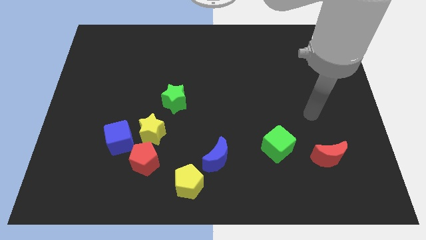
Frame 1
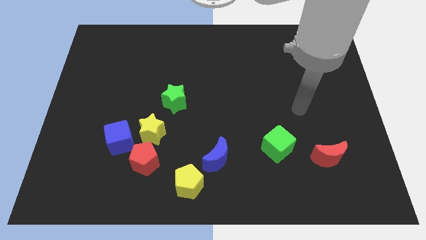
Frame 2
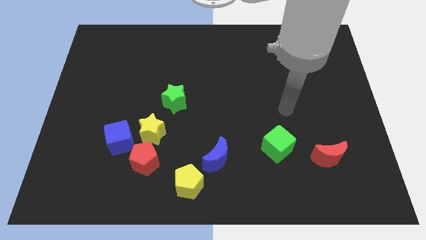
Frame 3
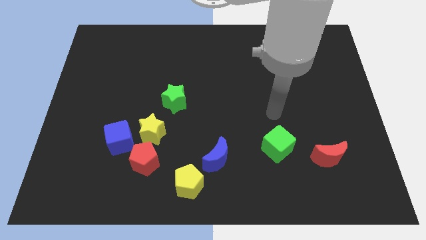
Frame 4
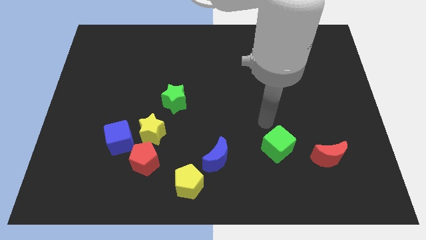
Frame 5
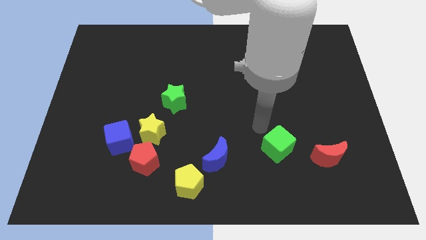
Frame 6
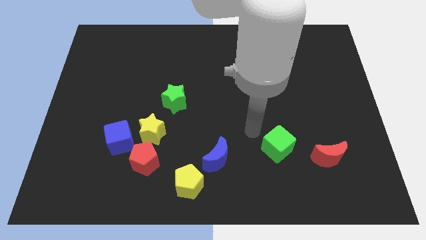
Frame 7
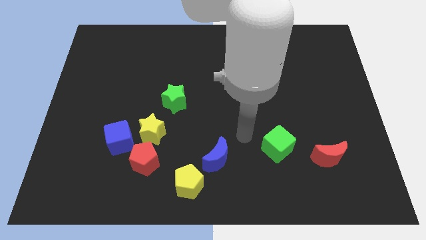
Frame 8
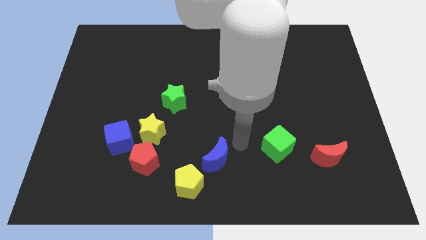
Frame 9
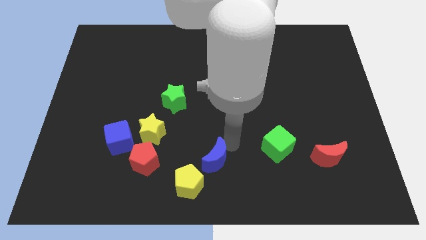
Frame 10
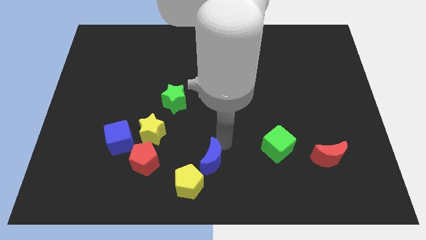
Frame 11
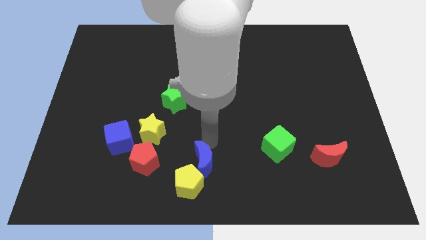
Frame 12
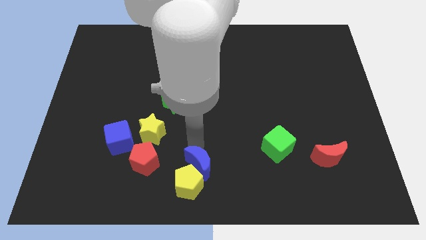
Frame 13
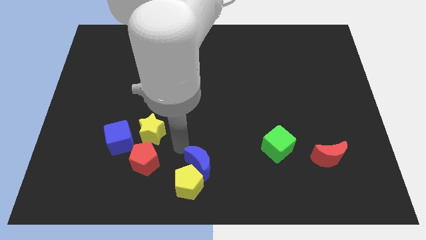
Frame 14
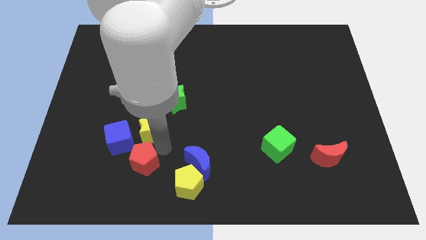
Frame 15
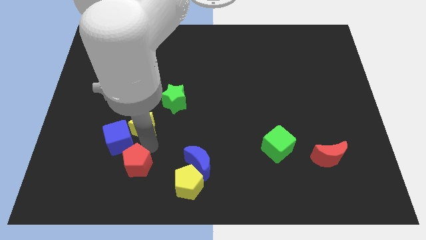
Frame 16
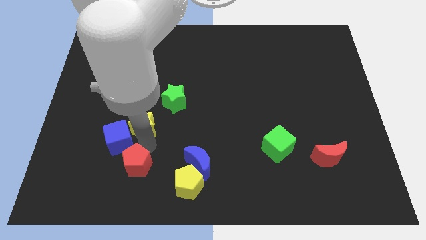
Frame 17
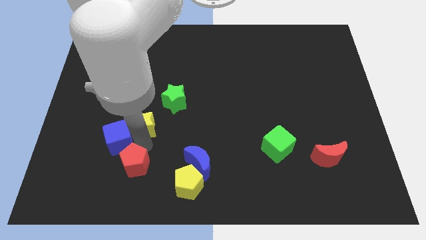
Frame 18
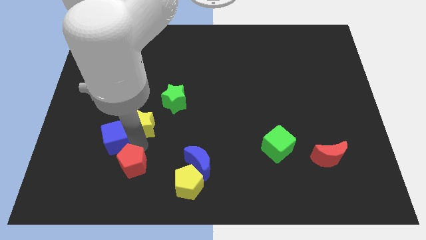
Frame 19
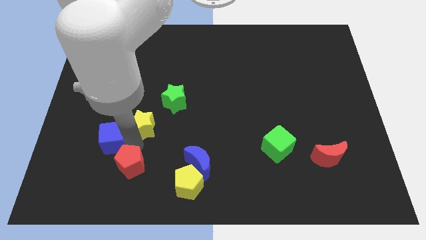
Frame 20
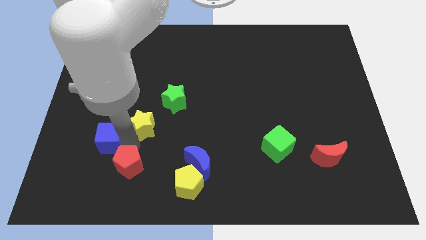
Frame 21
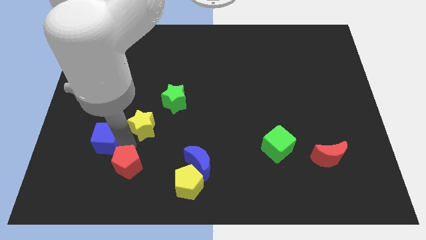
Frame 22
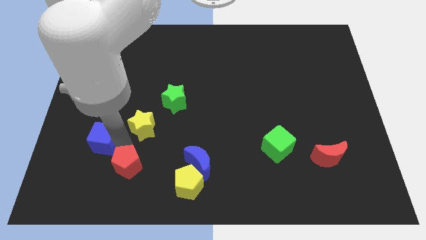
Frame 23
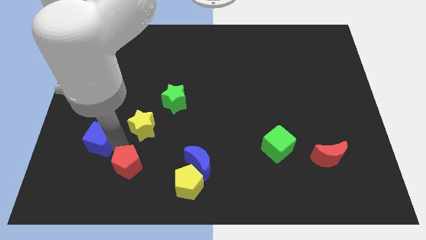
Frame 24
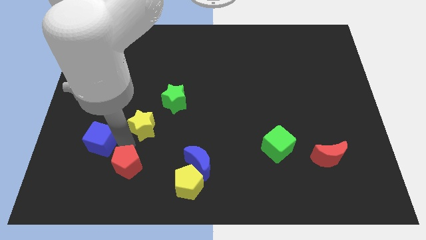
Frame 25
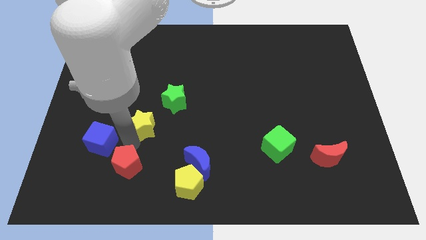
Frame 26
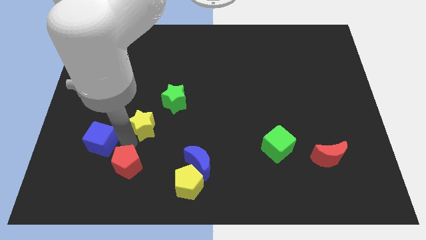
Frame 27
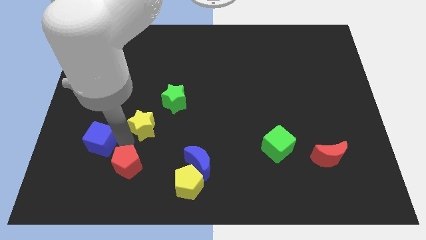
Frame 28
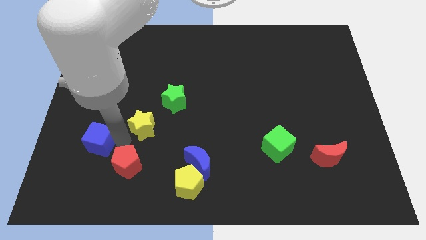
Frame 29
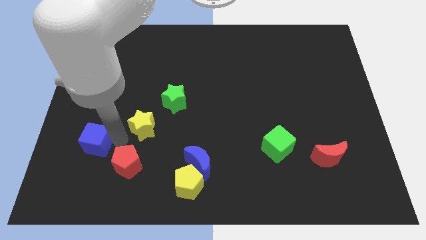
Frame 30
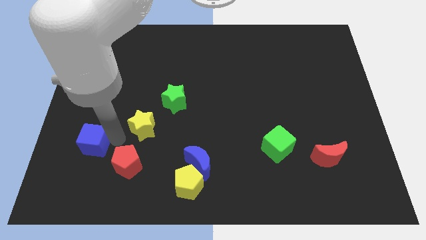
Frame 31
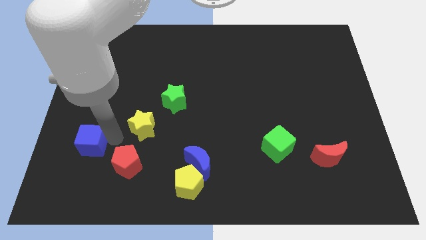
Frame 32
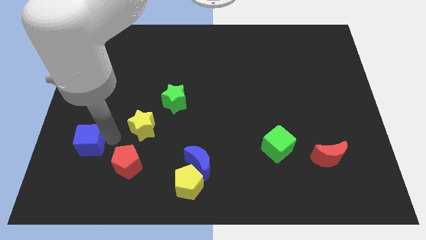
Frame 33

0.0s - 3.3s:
pull the blue cube apart from the yellow star and red pentagon

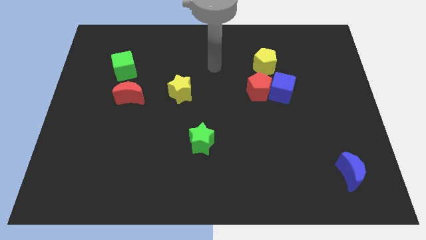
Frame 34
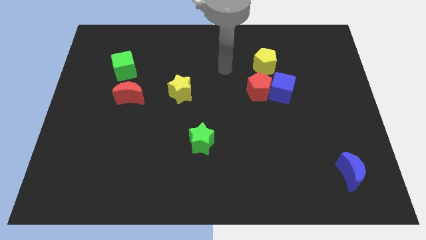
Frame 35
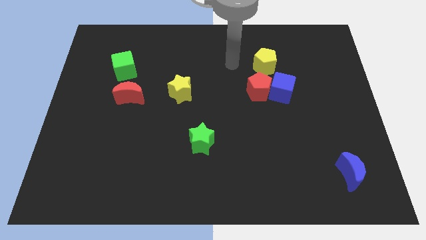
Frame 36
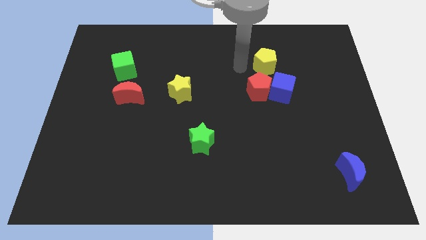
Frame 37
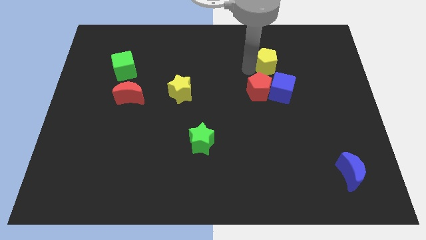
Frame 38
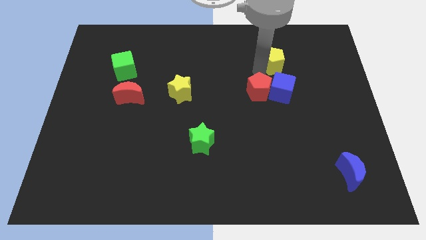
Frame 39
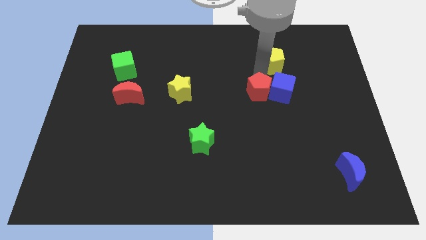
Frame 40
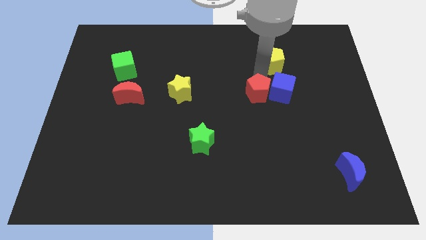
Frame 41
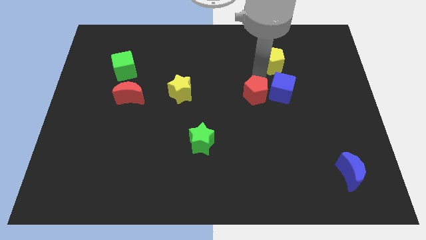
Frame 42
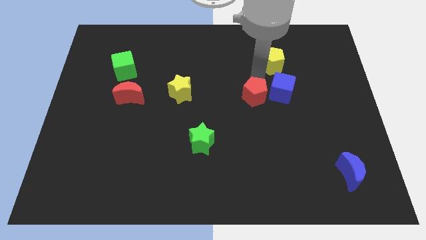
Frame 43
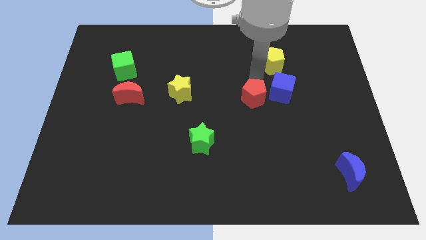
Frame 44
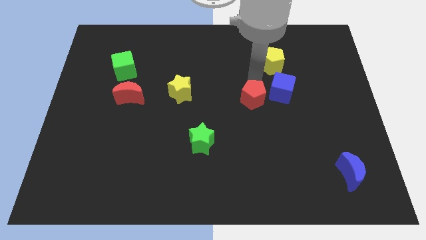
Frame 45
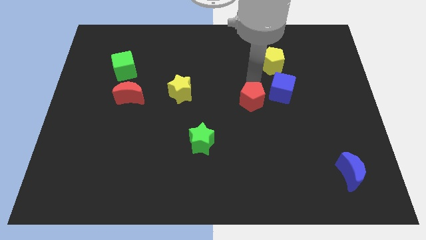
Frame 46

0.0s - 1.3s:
move the red pentagon away from the blue cube and yellow pentagon

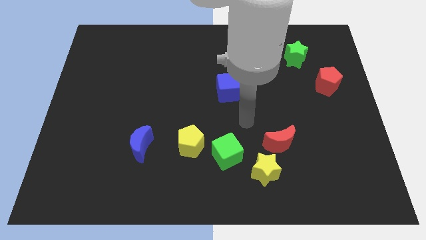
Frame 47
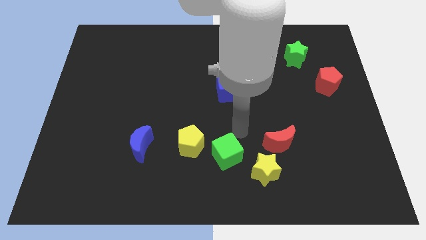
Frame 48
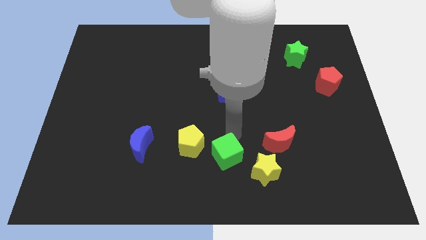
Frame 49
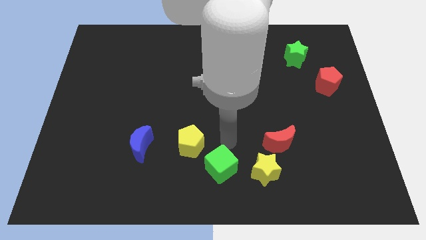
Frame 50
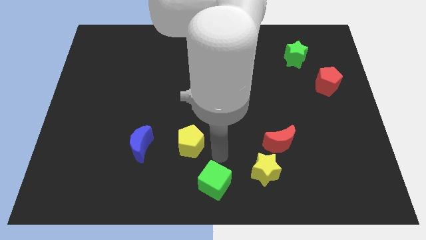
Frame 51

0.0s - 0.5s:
separate the yellow pentagon from the green cube

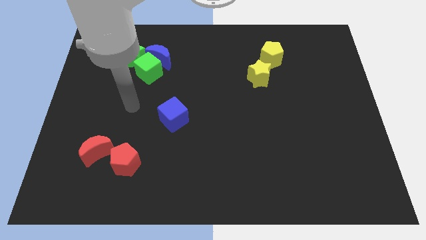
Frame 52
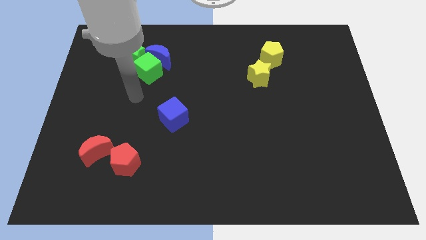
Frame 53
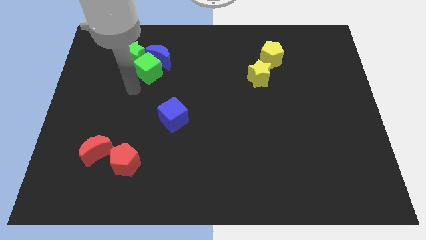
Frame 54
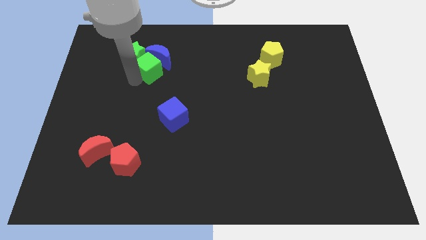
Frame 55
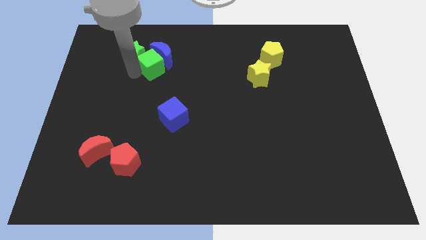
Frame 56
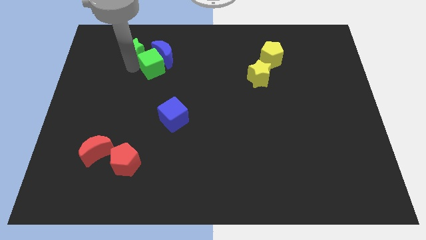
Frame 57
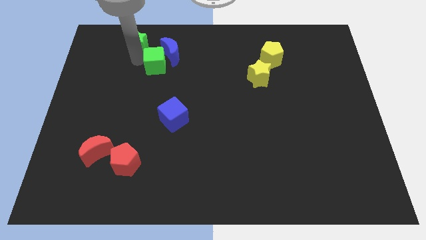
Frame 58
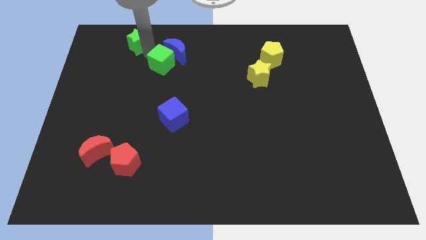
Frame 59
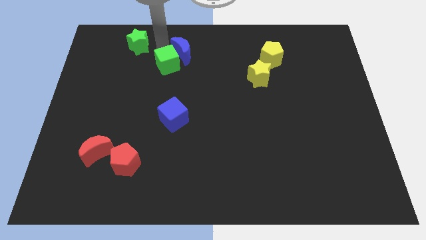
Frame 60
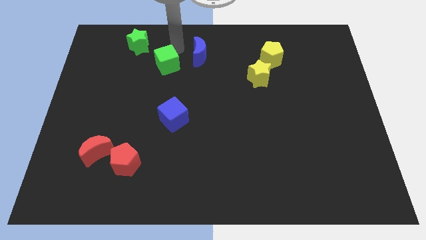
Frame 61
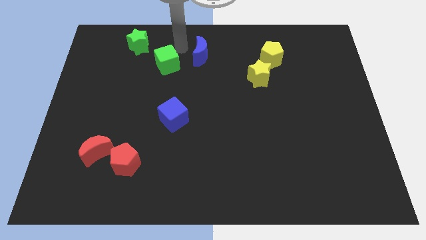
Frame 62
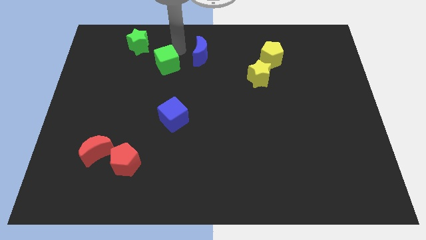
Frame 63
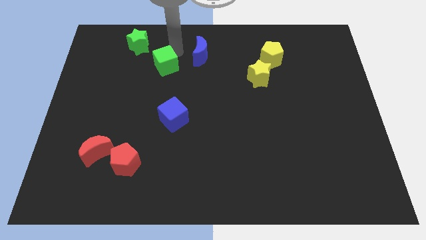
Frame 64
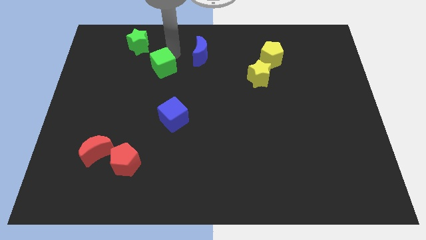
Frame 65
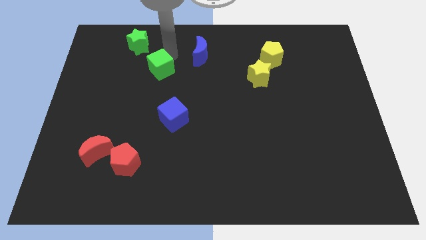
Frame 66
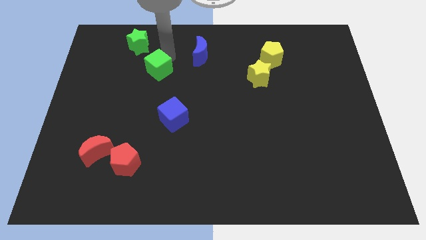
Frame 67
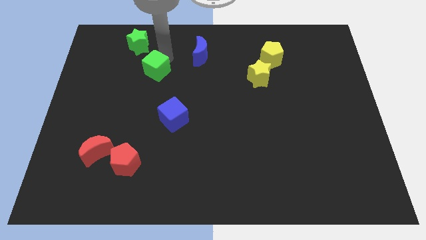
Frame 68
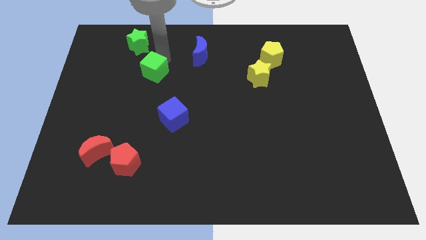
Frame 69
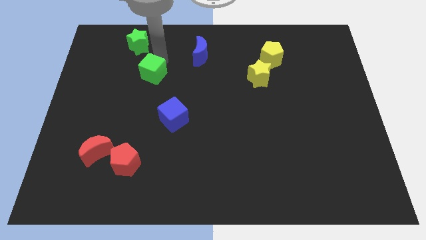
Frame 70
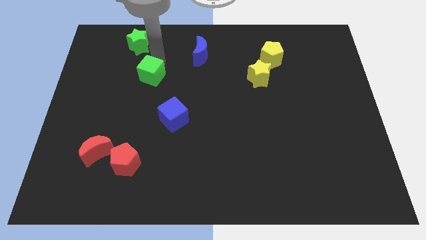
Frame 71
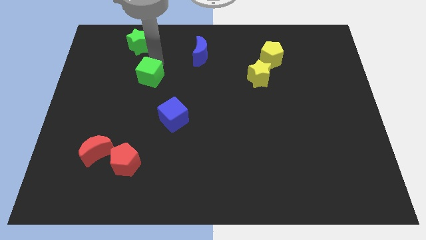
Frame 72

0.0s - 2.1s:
separate the green cube from the blue moon and green star

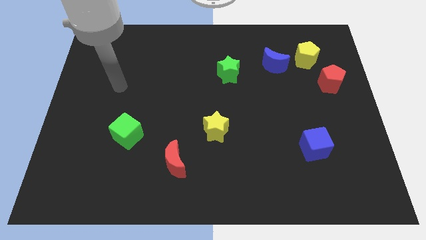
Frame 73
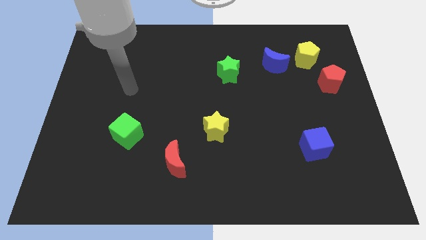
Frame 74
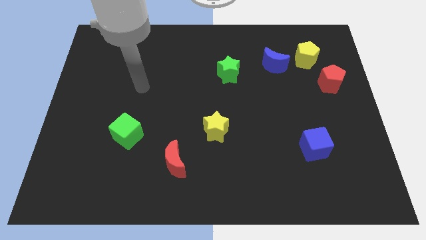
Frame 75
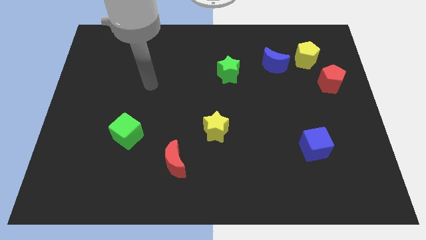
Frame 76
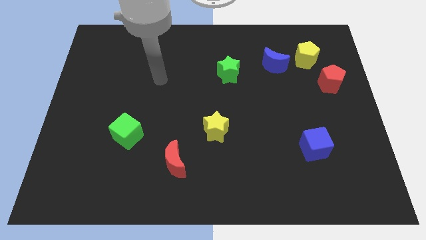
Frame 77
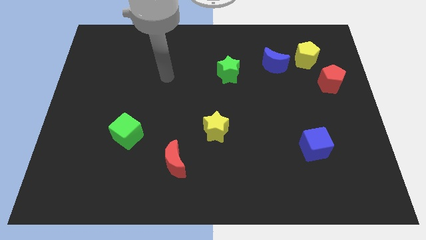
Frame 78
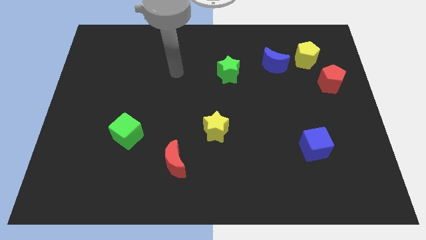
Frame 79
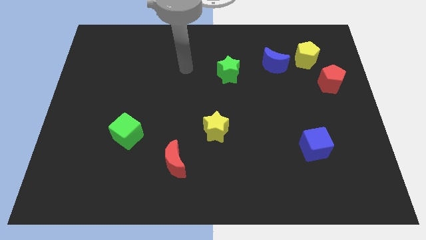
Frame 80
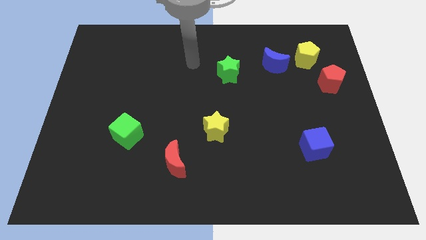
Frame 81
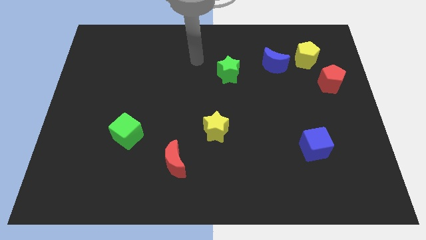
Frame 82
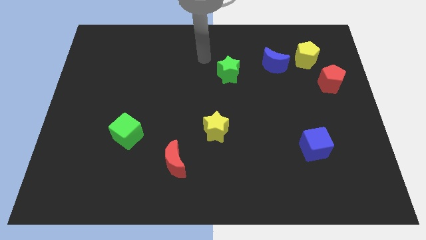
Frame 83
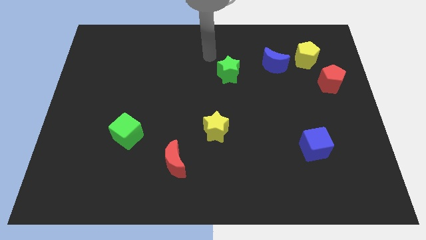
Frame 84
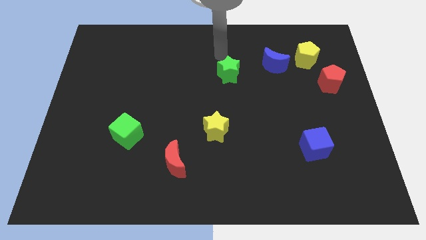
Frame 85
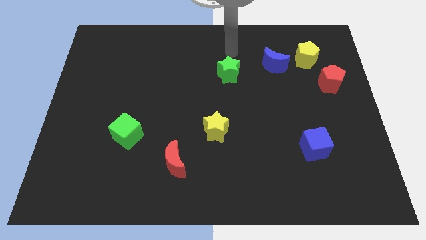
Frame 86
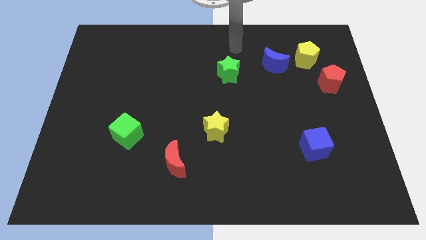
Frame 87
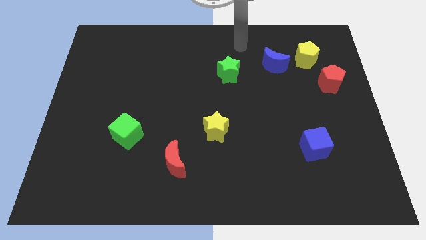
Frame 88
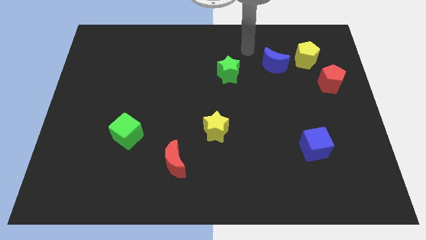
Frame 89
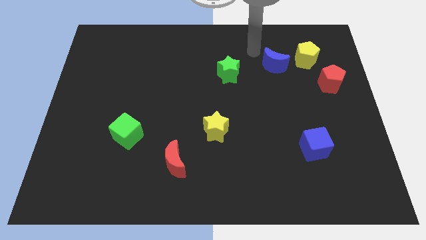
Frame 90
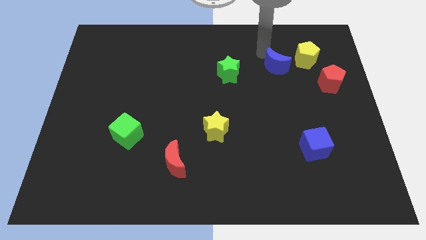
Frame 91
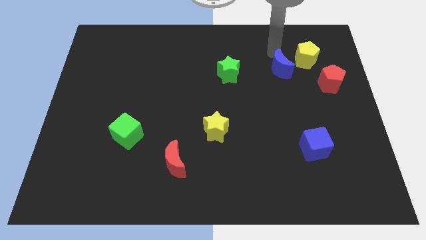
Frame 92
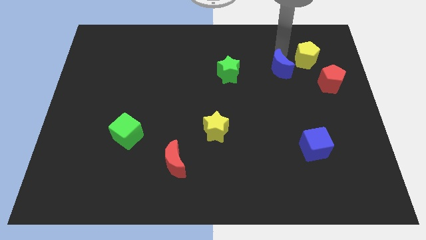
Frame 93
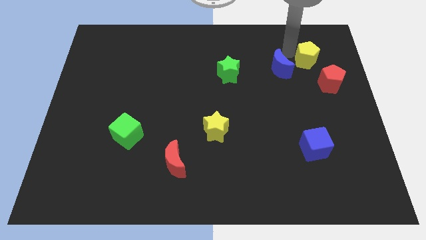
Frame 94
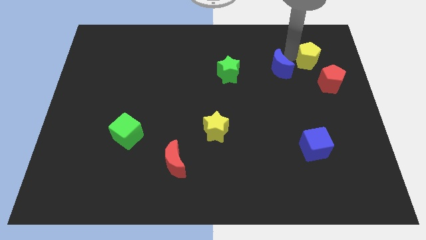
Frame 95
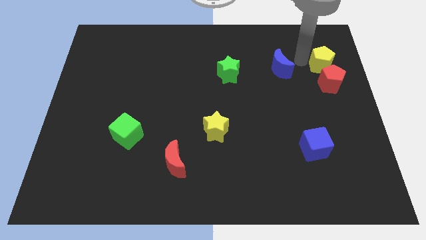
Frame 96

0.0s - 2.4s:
move the blue moon away from the yellow pentagon
